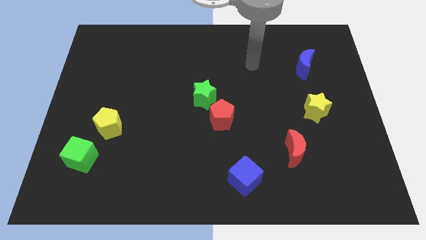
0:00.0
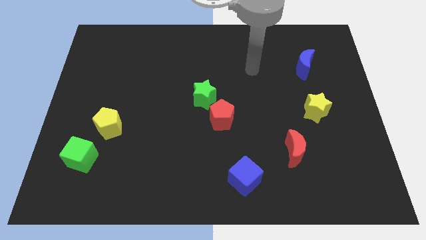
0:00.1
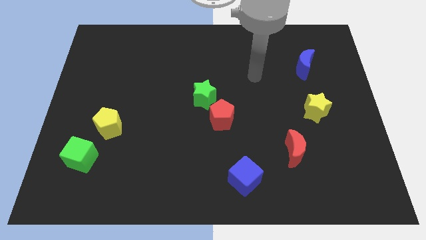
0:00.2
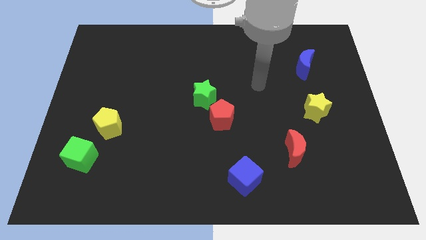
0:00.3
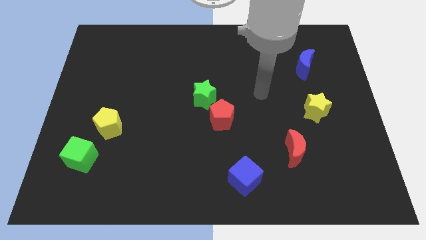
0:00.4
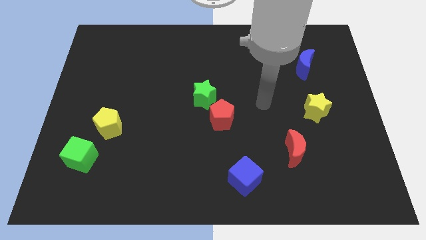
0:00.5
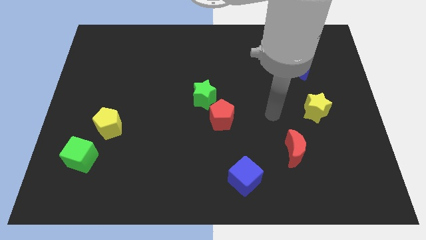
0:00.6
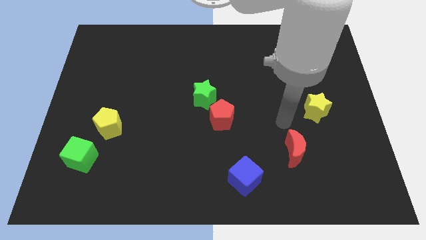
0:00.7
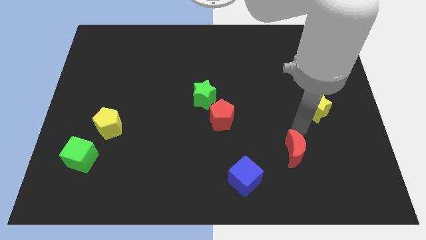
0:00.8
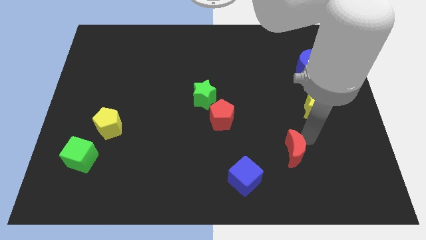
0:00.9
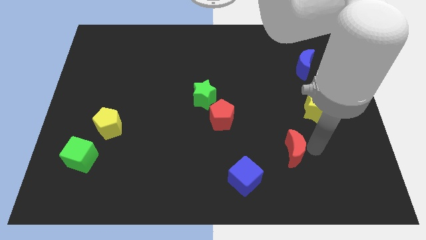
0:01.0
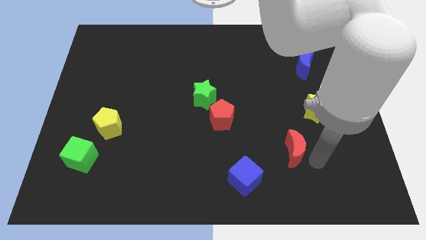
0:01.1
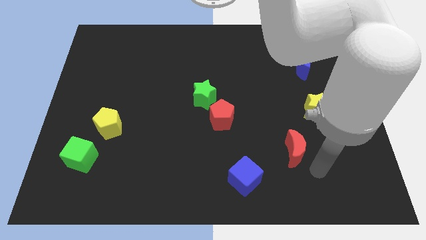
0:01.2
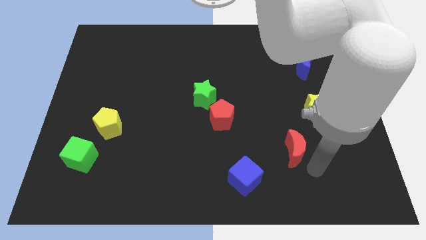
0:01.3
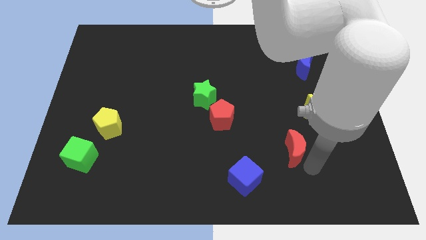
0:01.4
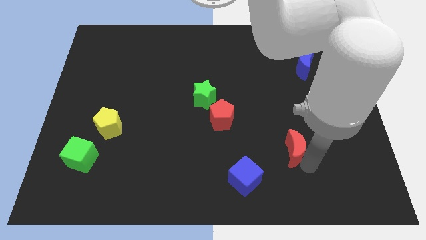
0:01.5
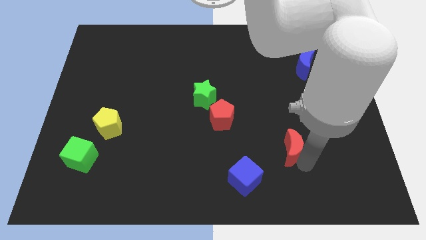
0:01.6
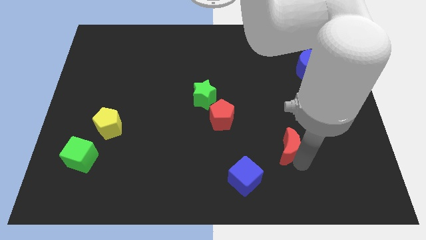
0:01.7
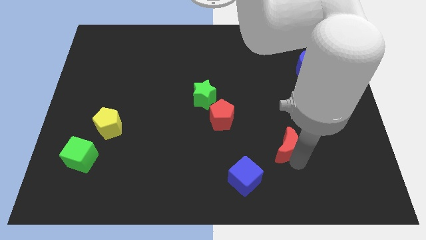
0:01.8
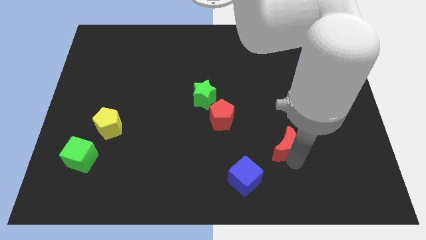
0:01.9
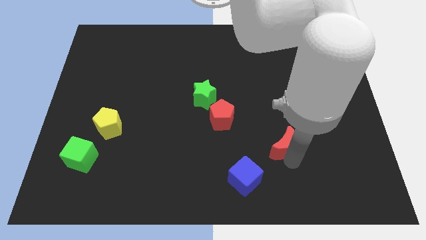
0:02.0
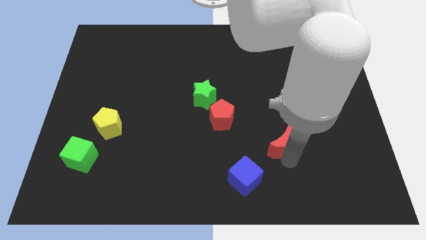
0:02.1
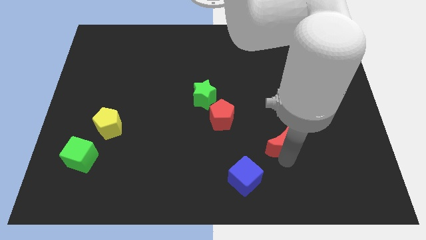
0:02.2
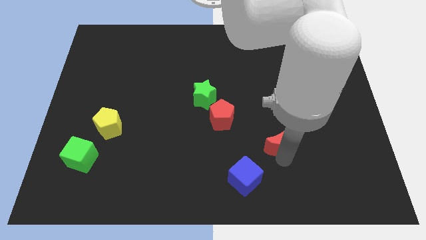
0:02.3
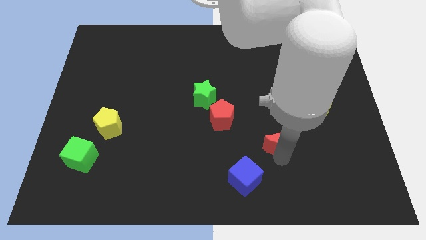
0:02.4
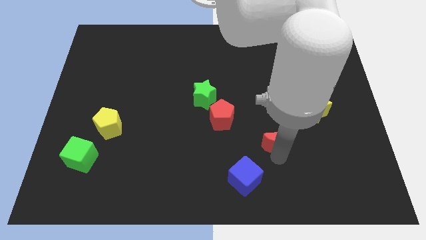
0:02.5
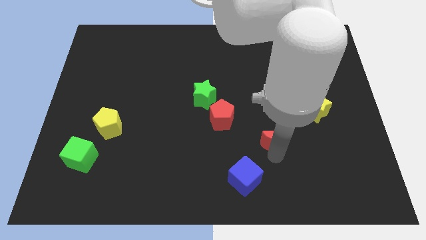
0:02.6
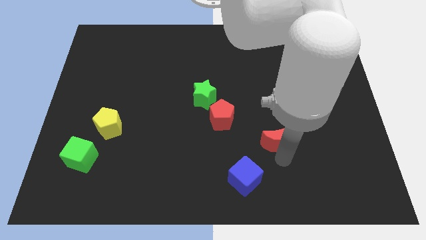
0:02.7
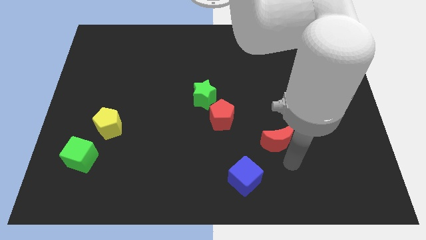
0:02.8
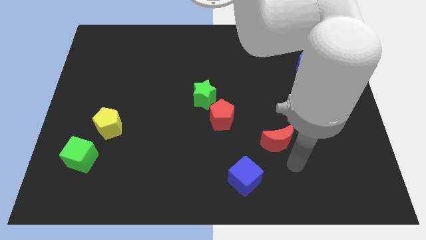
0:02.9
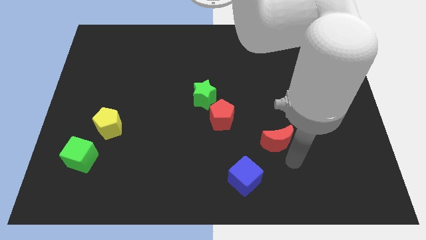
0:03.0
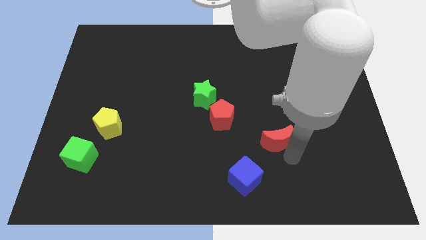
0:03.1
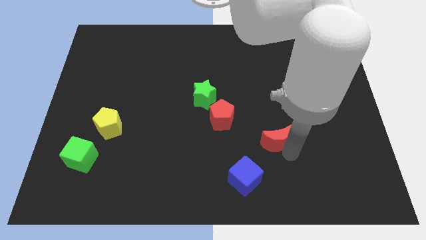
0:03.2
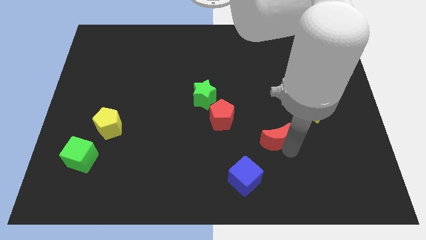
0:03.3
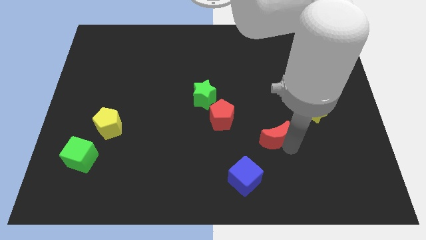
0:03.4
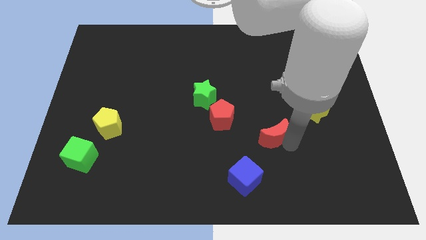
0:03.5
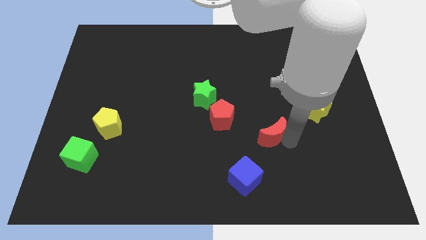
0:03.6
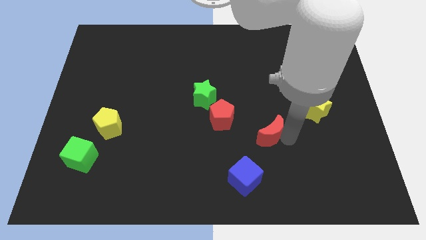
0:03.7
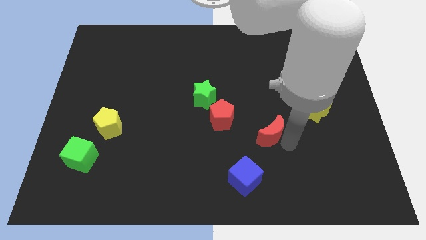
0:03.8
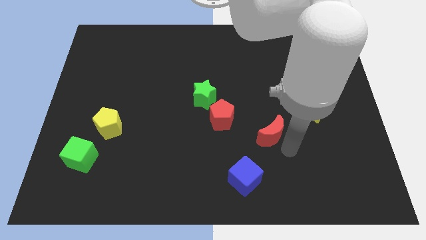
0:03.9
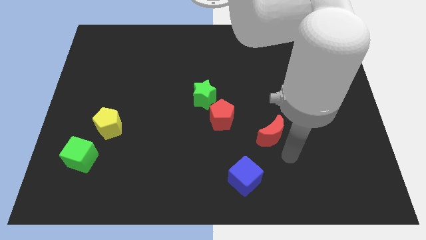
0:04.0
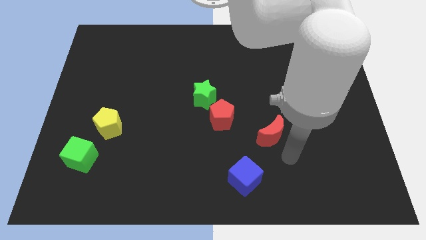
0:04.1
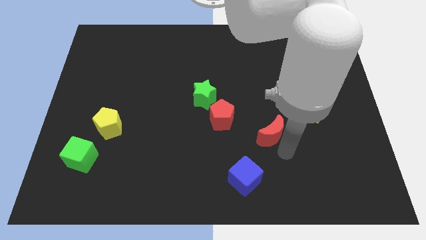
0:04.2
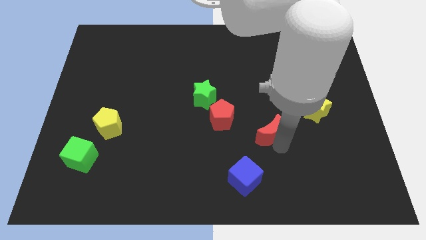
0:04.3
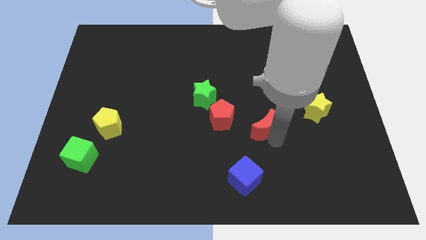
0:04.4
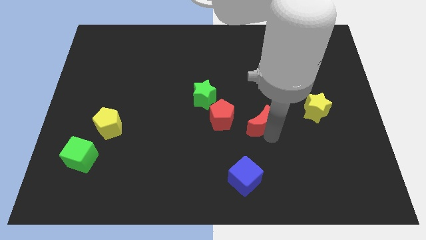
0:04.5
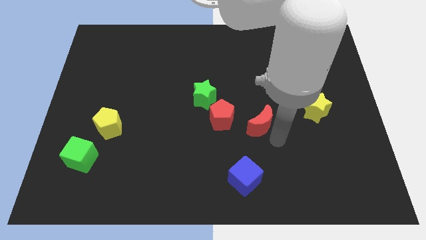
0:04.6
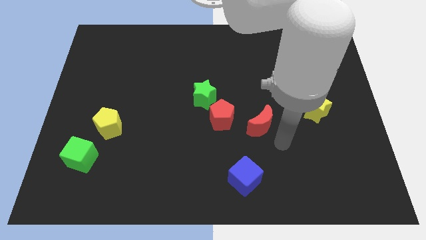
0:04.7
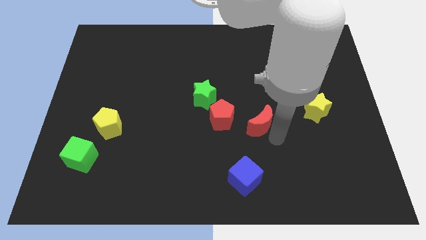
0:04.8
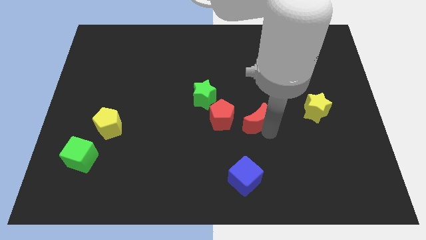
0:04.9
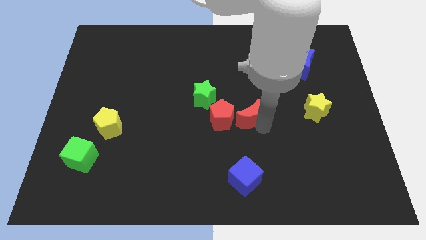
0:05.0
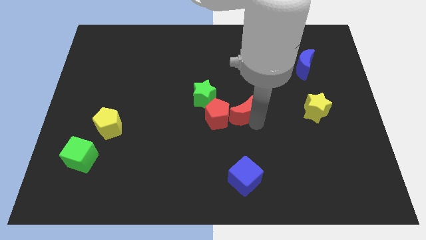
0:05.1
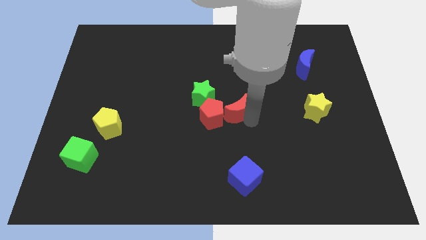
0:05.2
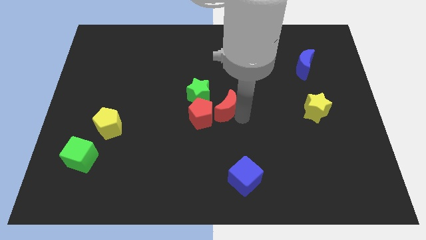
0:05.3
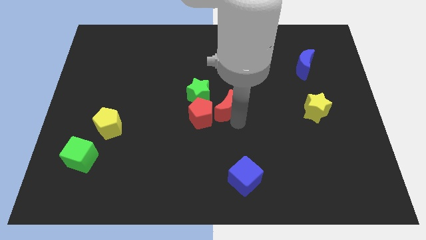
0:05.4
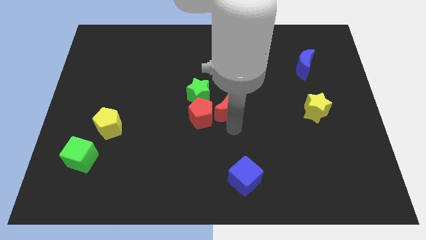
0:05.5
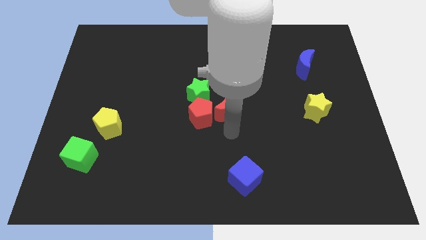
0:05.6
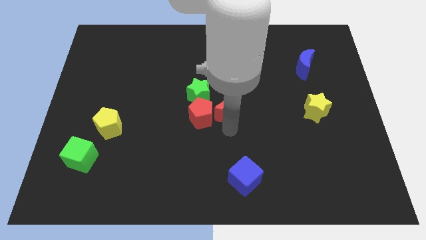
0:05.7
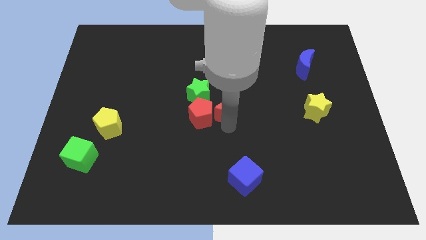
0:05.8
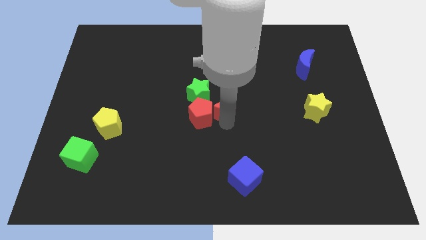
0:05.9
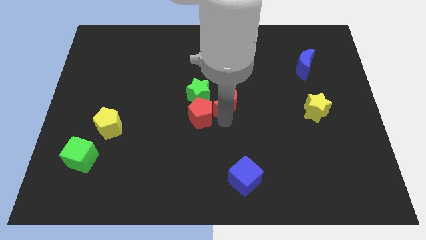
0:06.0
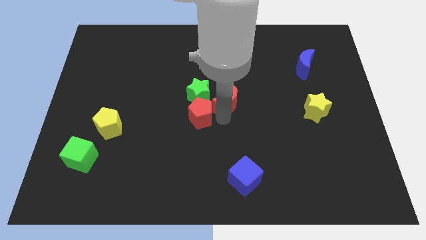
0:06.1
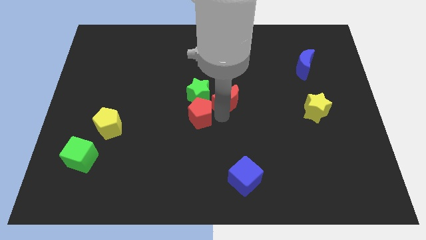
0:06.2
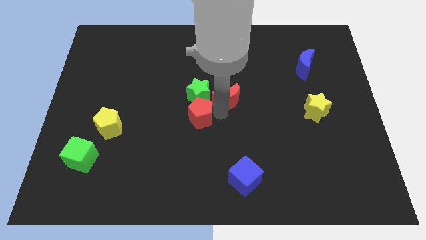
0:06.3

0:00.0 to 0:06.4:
slide the red moon upwards and then left

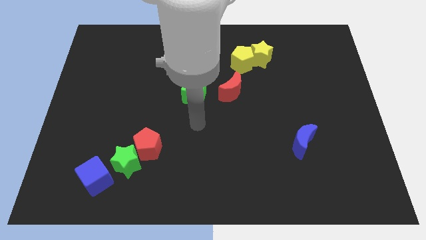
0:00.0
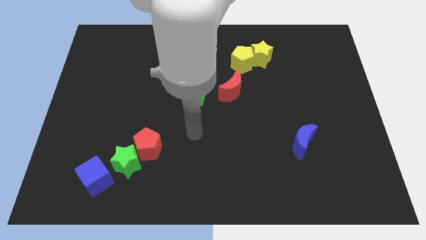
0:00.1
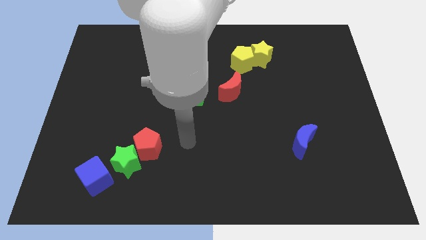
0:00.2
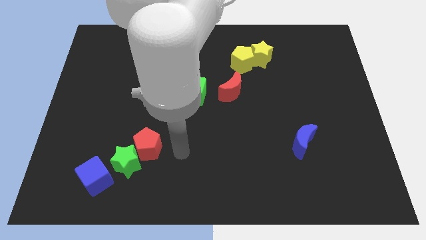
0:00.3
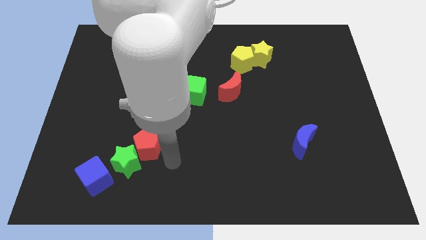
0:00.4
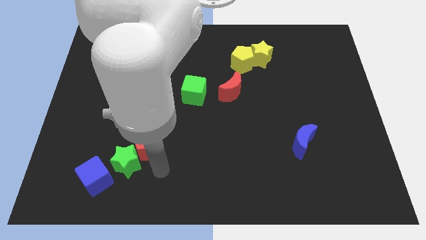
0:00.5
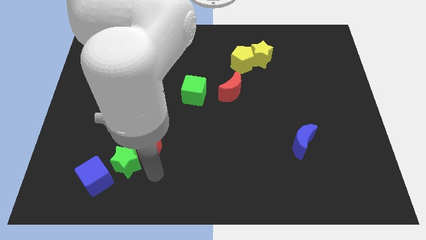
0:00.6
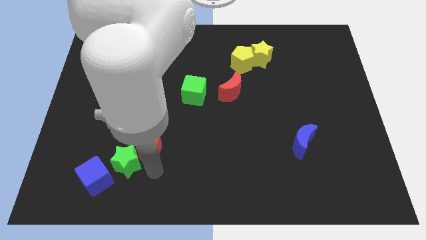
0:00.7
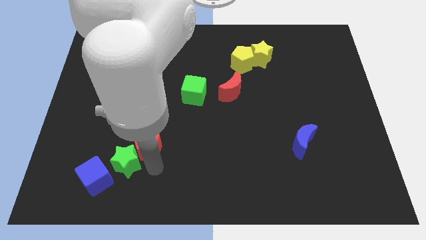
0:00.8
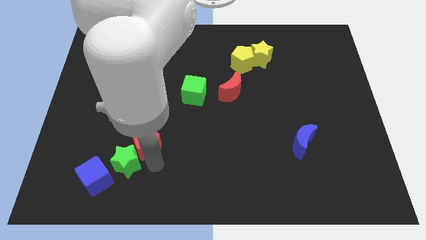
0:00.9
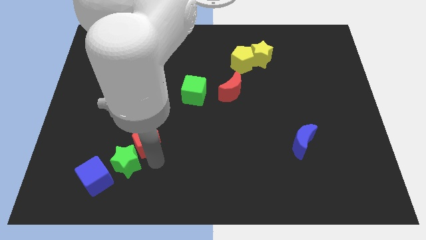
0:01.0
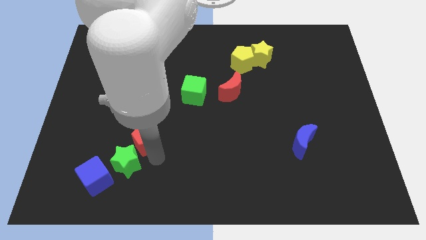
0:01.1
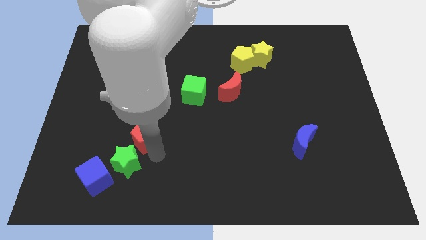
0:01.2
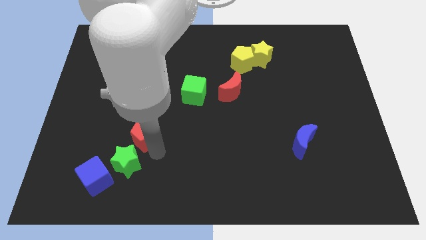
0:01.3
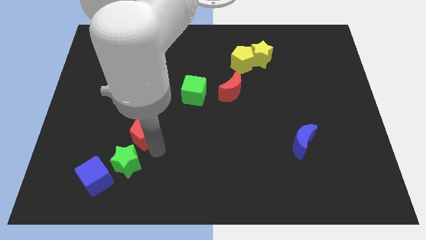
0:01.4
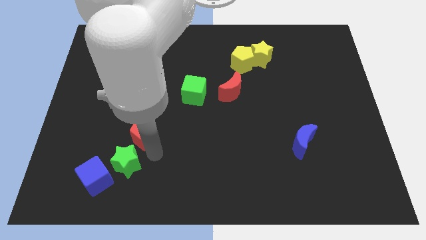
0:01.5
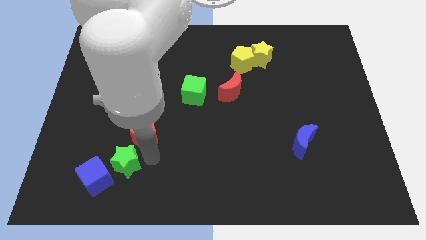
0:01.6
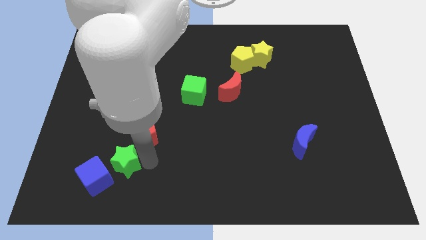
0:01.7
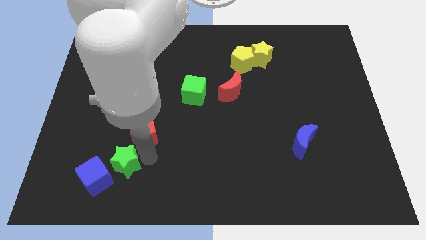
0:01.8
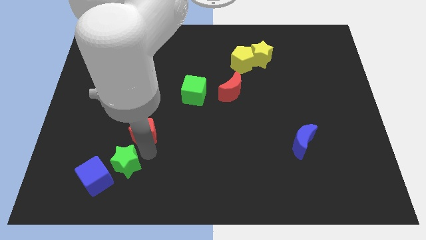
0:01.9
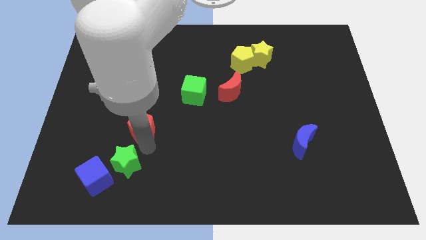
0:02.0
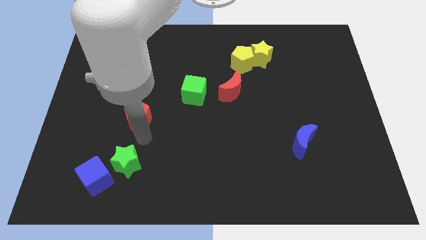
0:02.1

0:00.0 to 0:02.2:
slide the red pentagon somewhat upwards
